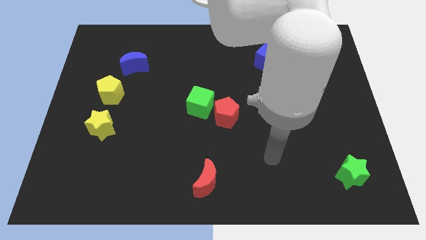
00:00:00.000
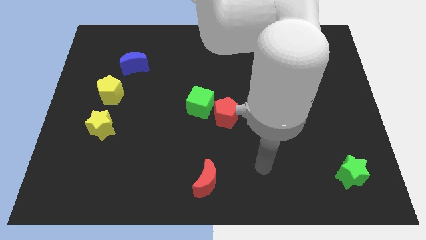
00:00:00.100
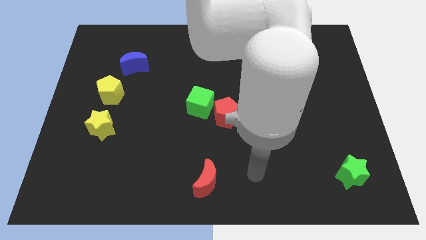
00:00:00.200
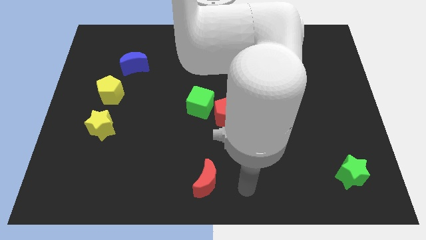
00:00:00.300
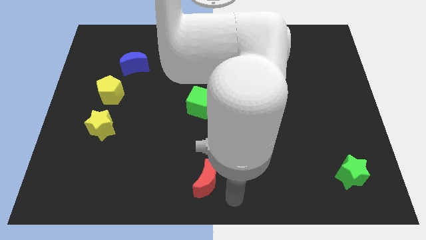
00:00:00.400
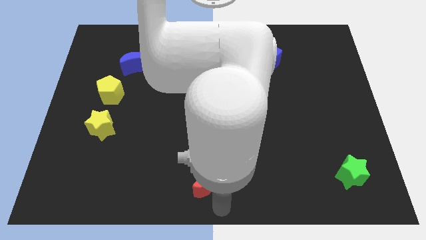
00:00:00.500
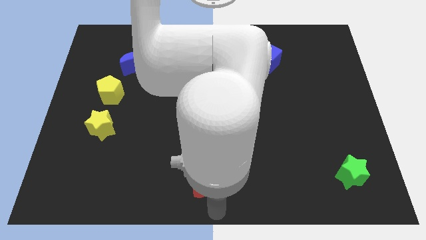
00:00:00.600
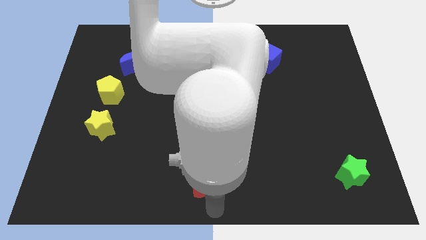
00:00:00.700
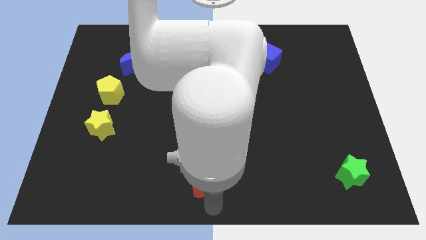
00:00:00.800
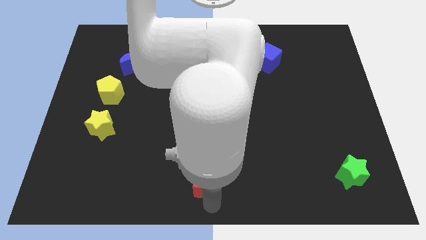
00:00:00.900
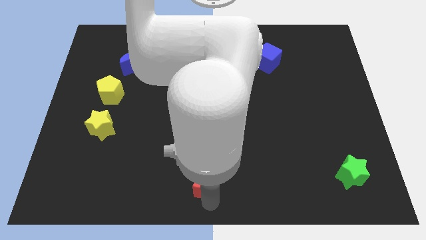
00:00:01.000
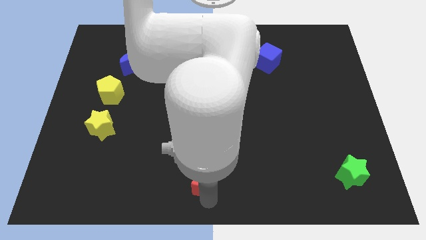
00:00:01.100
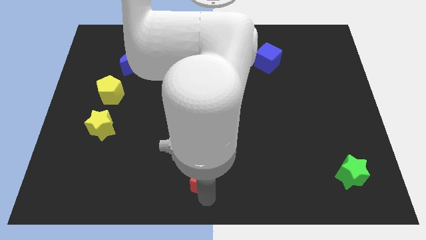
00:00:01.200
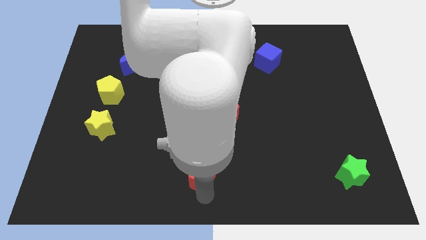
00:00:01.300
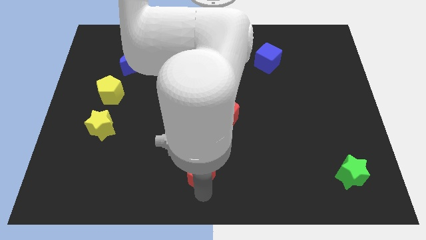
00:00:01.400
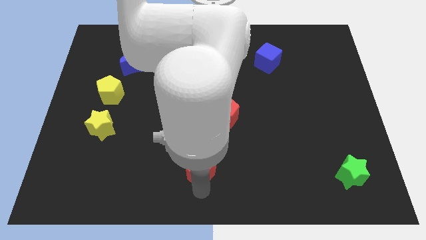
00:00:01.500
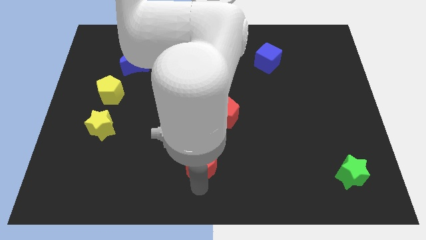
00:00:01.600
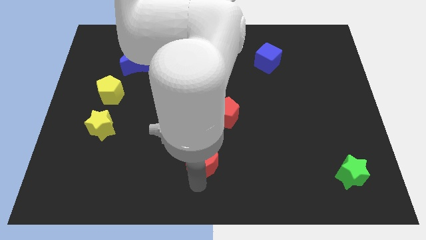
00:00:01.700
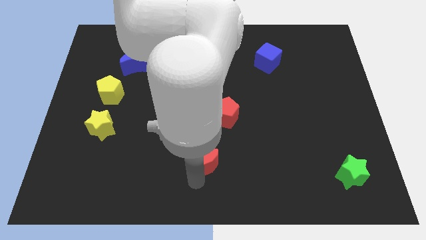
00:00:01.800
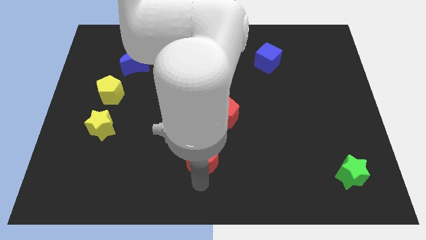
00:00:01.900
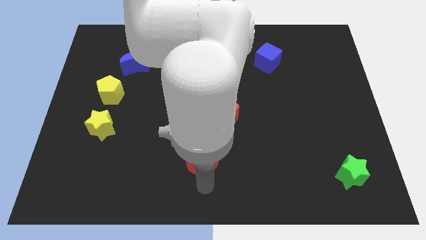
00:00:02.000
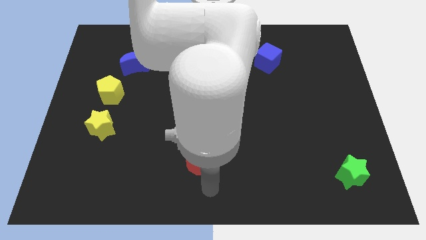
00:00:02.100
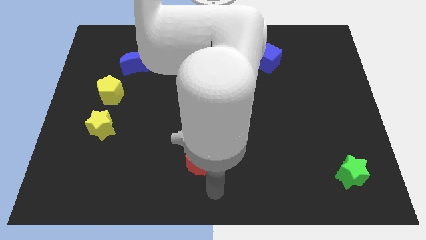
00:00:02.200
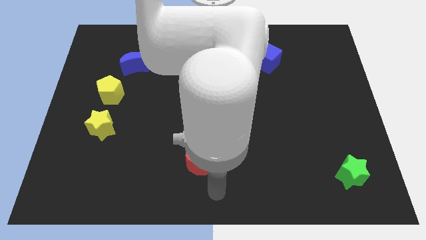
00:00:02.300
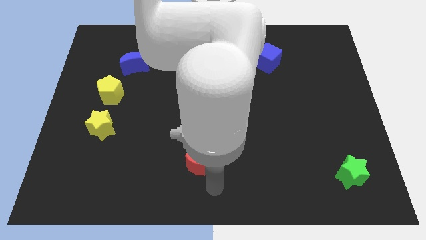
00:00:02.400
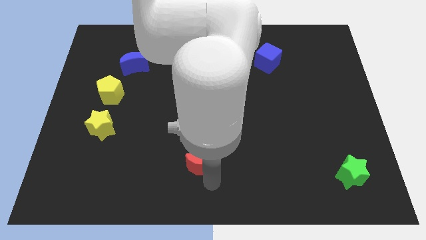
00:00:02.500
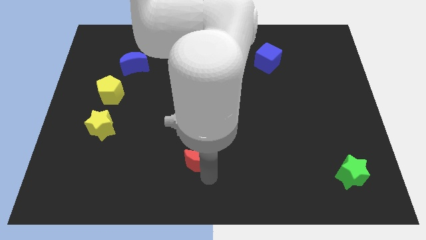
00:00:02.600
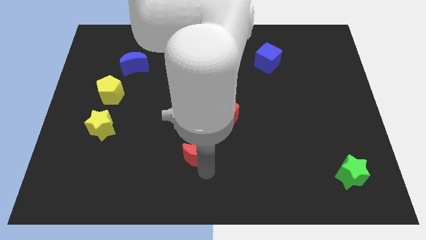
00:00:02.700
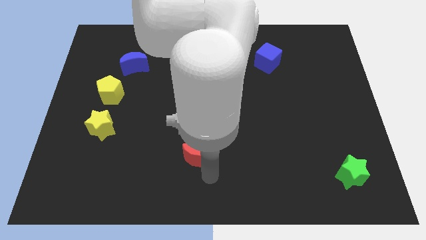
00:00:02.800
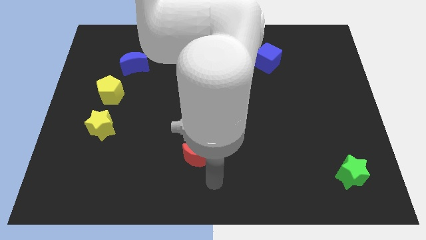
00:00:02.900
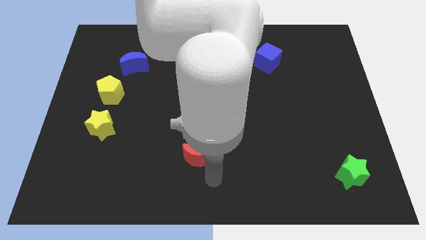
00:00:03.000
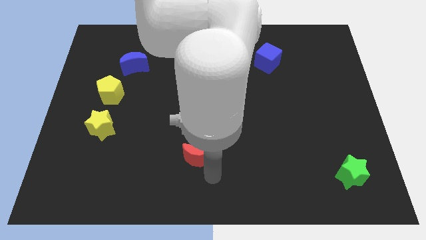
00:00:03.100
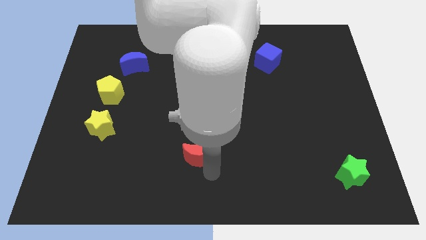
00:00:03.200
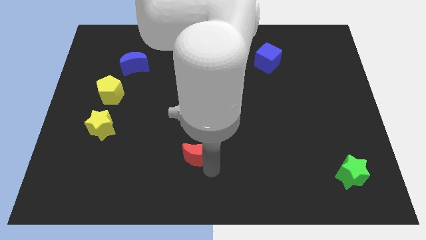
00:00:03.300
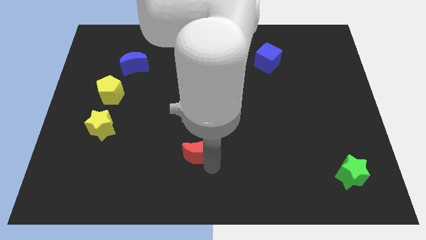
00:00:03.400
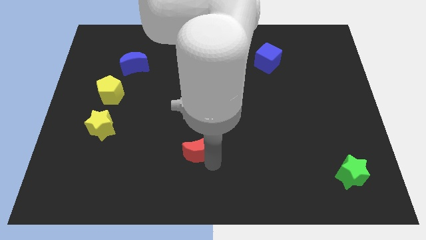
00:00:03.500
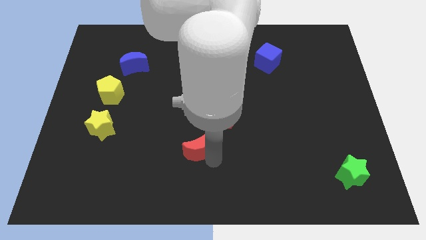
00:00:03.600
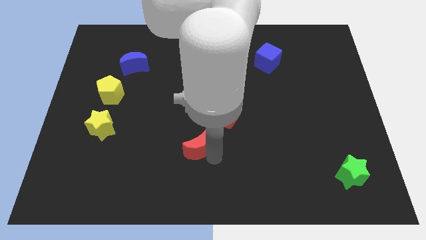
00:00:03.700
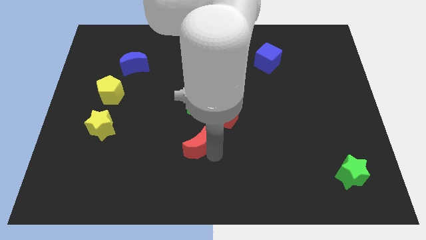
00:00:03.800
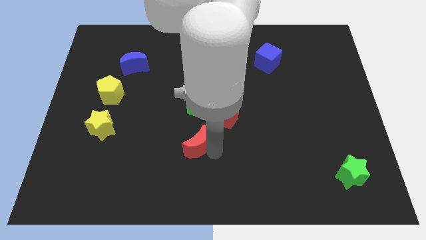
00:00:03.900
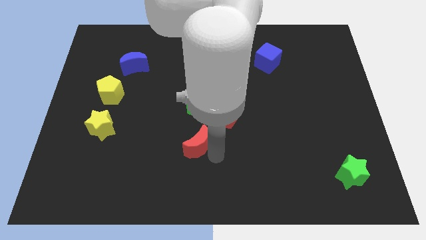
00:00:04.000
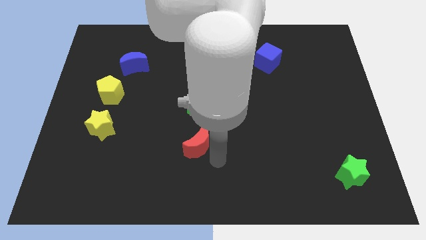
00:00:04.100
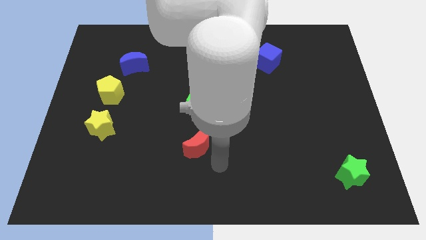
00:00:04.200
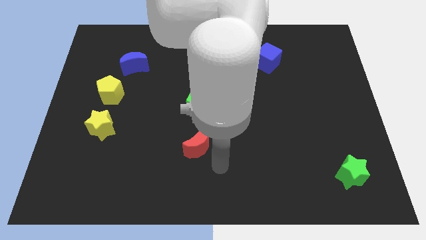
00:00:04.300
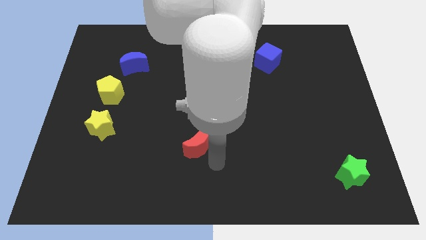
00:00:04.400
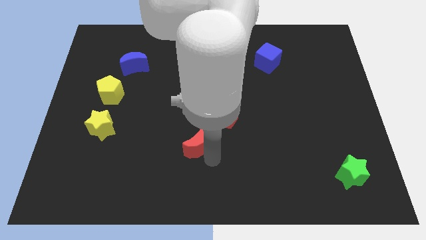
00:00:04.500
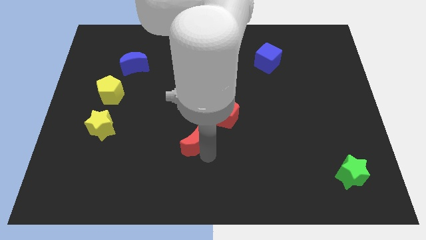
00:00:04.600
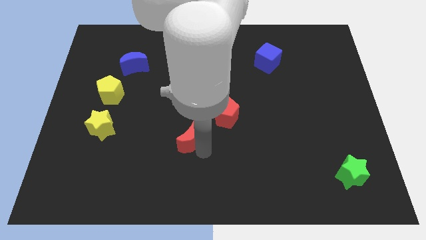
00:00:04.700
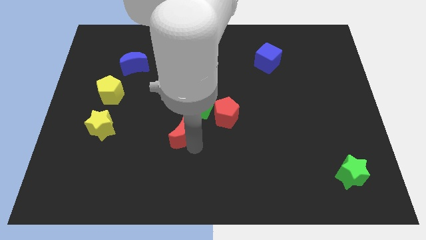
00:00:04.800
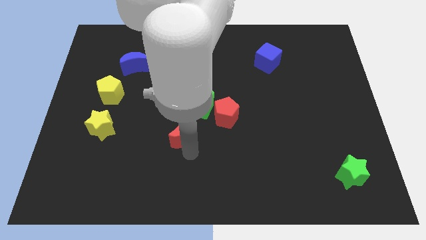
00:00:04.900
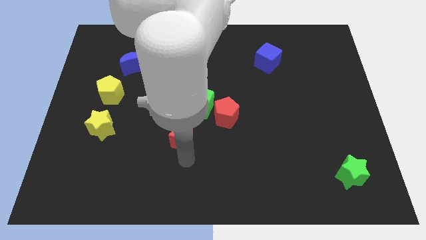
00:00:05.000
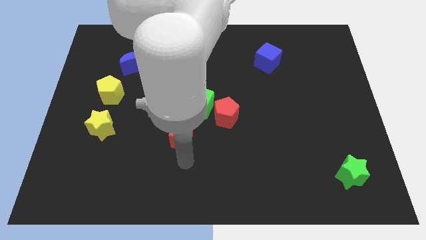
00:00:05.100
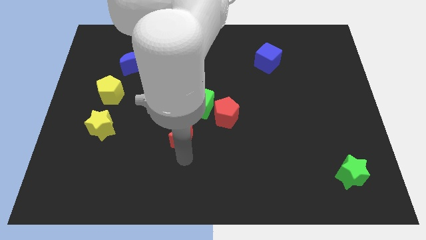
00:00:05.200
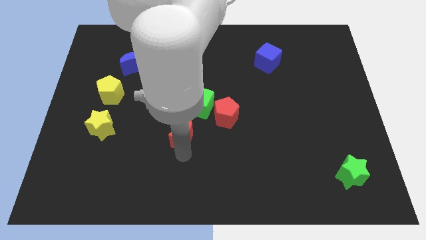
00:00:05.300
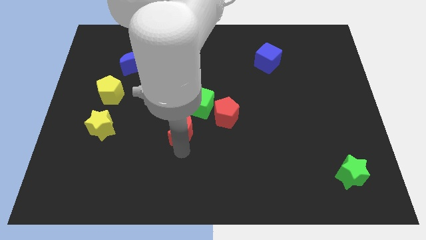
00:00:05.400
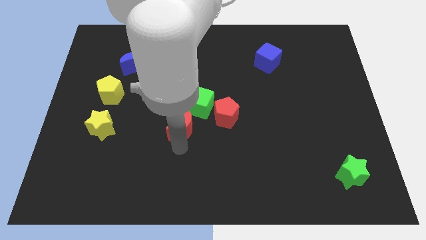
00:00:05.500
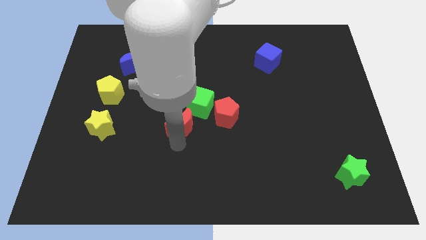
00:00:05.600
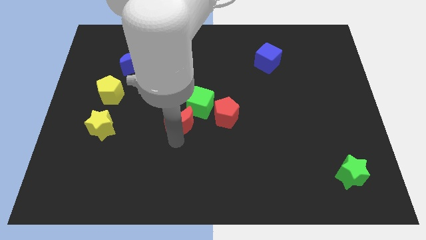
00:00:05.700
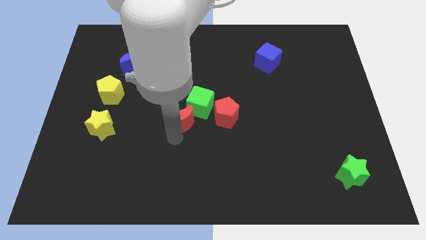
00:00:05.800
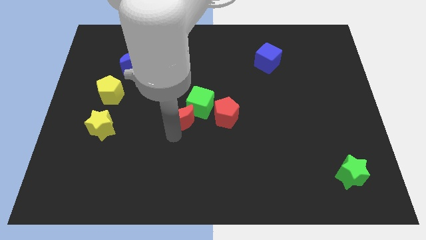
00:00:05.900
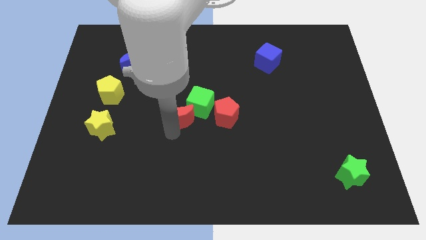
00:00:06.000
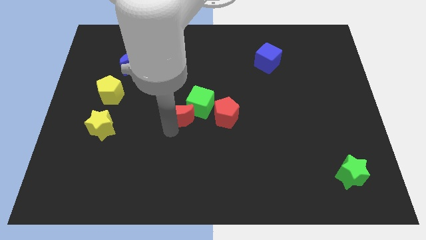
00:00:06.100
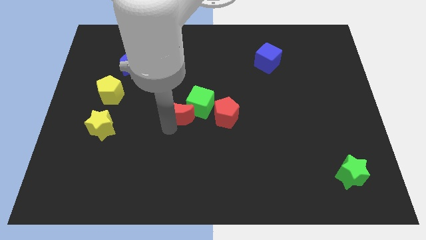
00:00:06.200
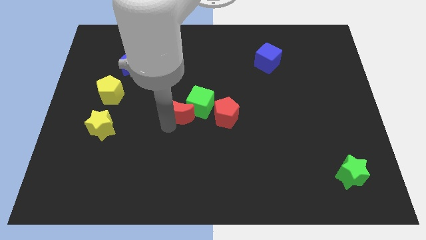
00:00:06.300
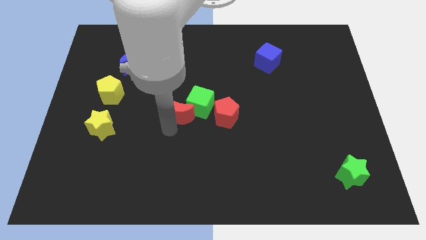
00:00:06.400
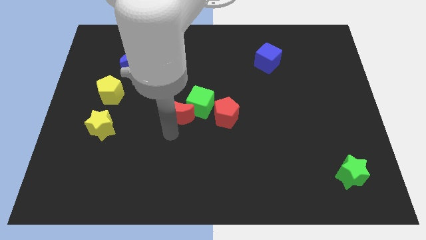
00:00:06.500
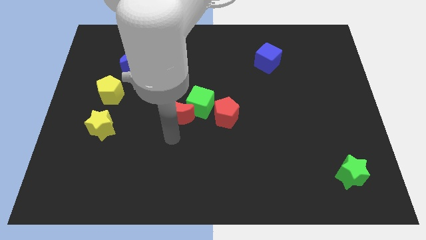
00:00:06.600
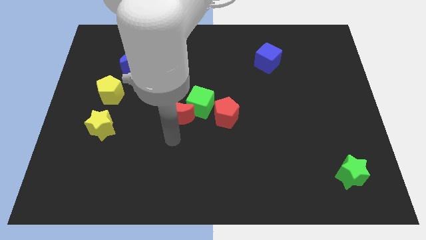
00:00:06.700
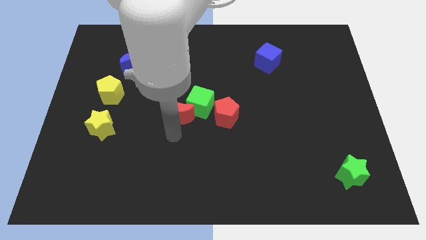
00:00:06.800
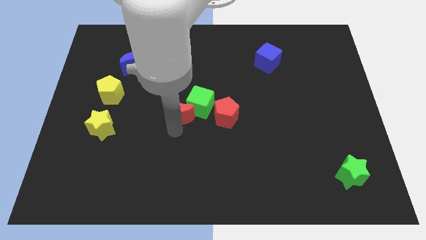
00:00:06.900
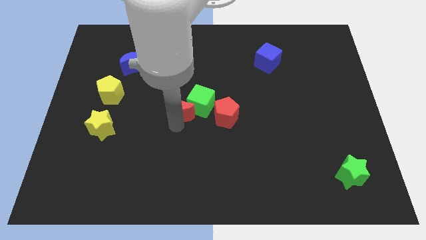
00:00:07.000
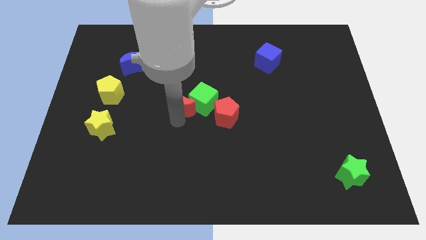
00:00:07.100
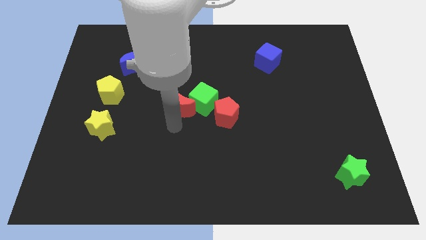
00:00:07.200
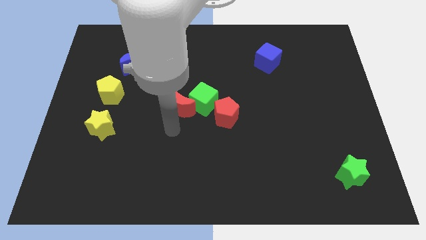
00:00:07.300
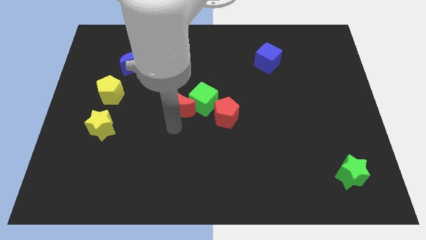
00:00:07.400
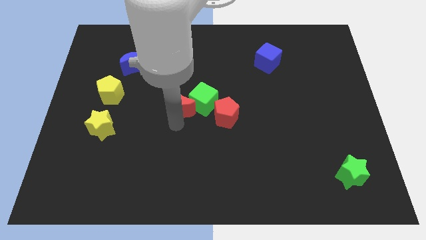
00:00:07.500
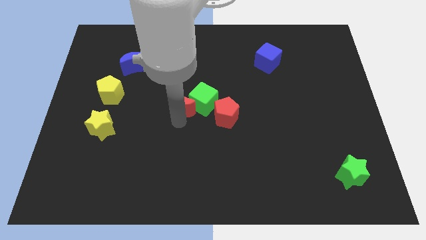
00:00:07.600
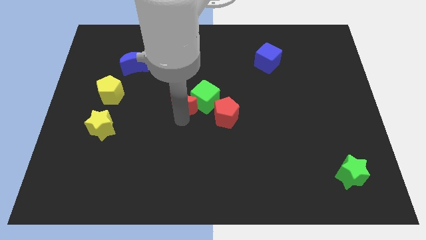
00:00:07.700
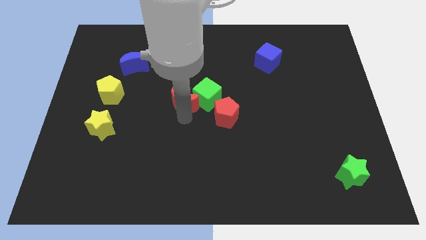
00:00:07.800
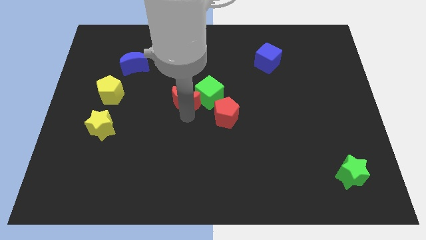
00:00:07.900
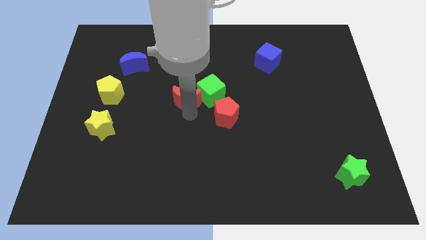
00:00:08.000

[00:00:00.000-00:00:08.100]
move the red moon up

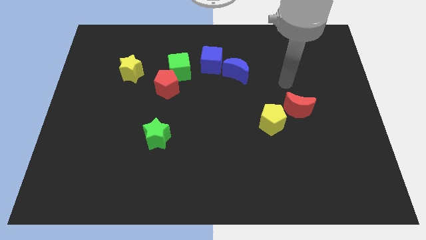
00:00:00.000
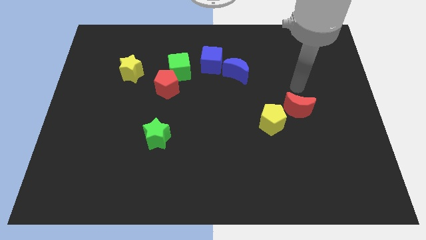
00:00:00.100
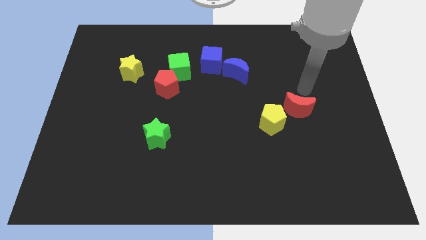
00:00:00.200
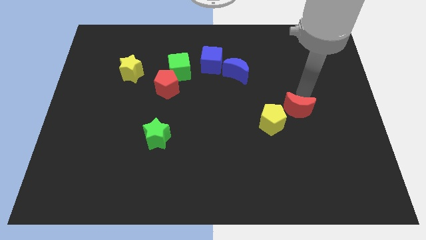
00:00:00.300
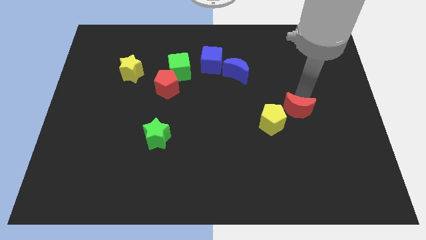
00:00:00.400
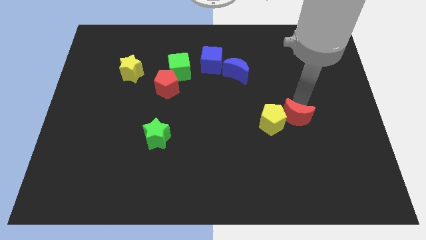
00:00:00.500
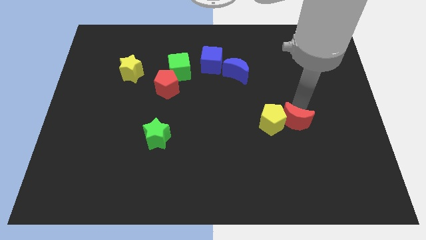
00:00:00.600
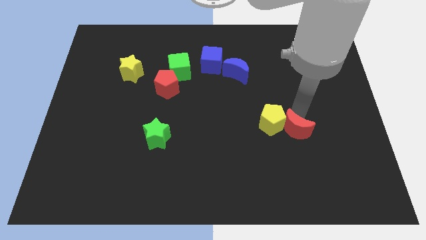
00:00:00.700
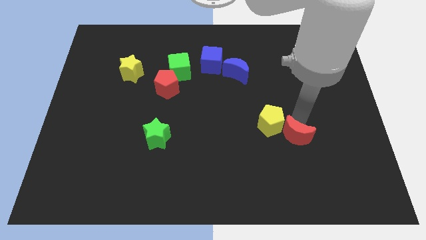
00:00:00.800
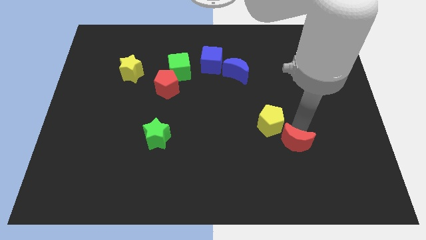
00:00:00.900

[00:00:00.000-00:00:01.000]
slide the red moon downwards and left somewhat
